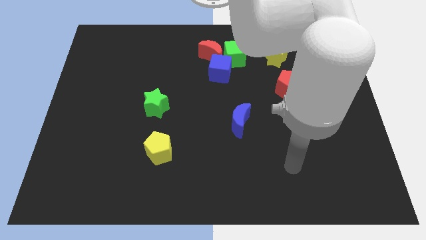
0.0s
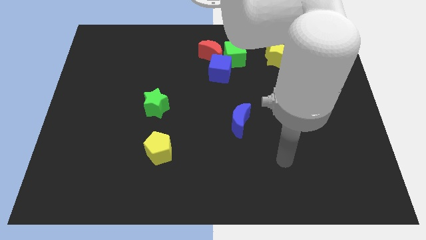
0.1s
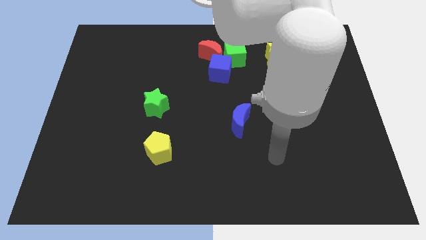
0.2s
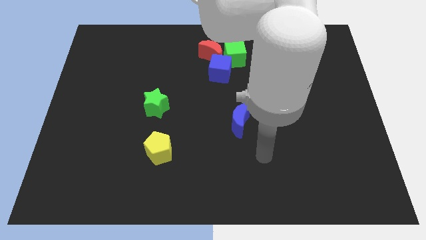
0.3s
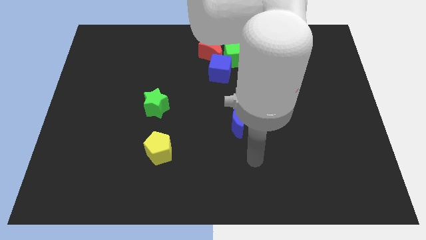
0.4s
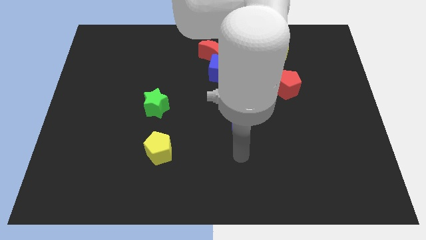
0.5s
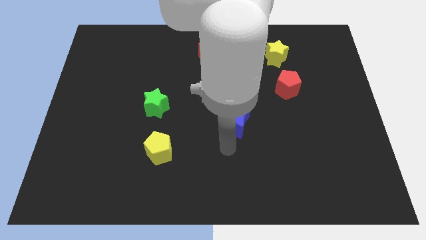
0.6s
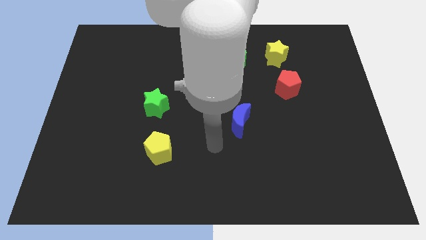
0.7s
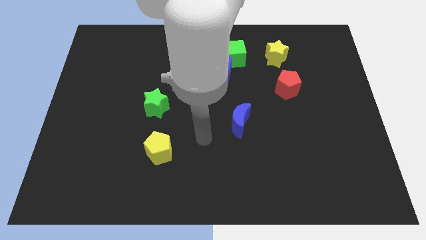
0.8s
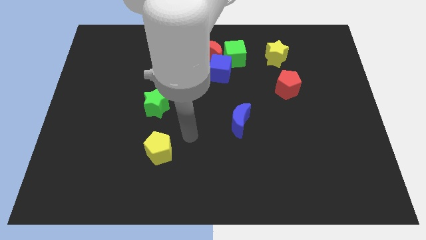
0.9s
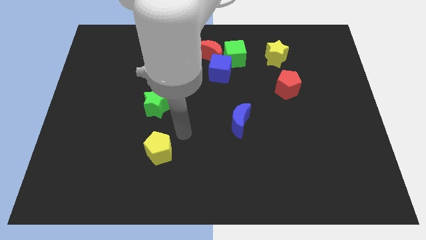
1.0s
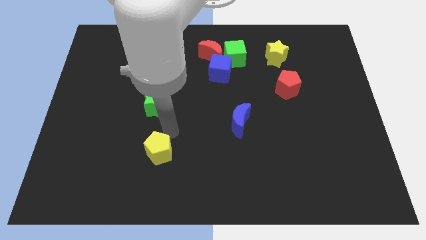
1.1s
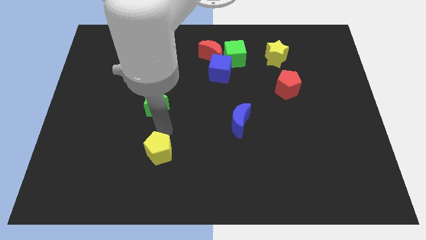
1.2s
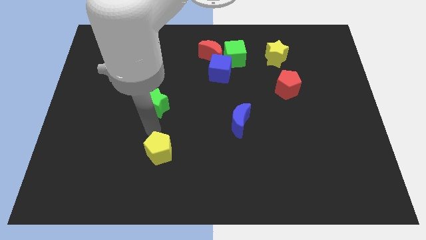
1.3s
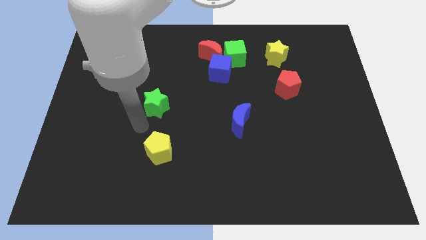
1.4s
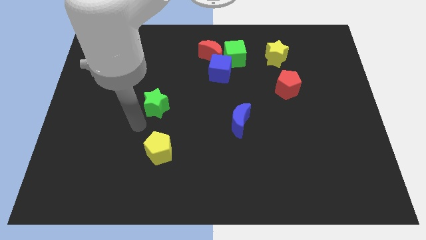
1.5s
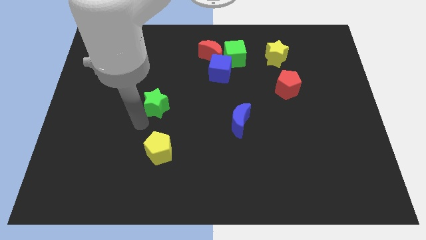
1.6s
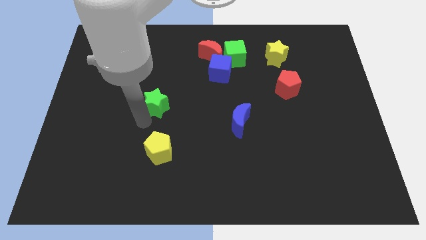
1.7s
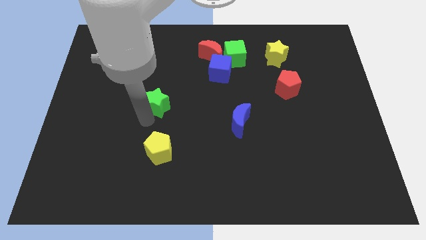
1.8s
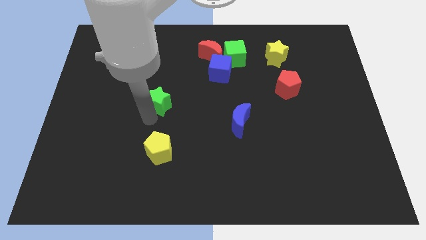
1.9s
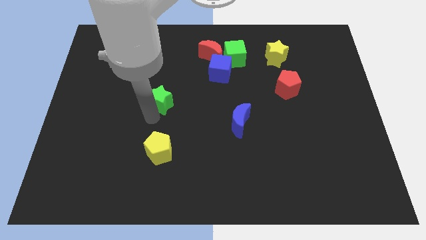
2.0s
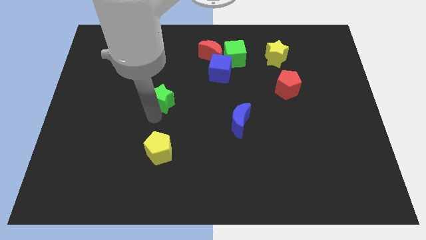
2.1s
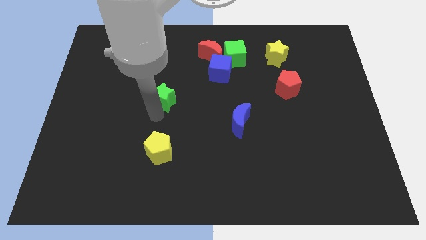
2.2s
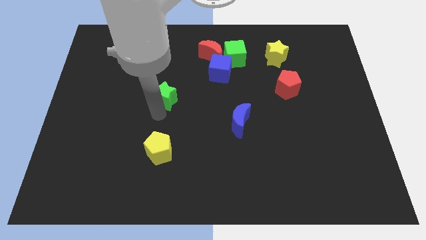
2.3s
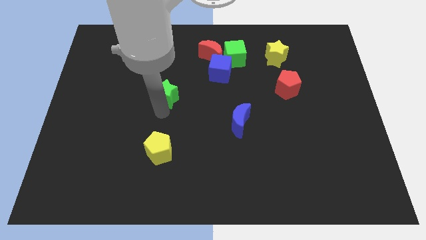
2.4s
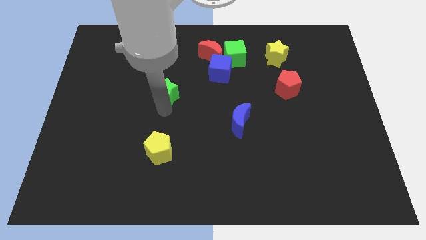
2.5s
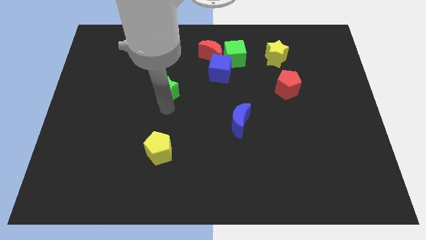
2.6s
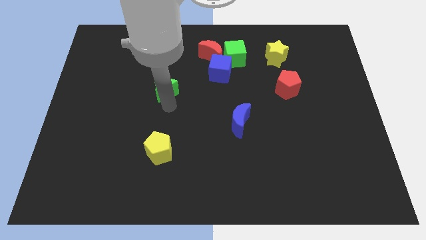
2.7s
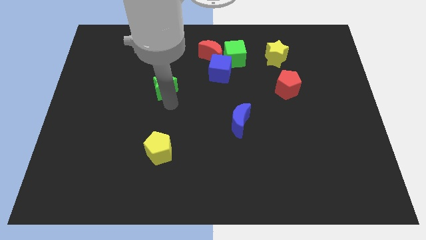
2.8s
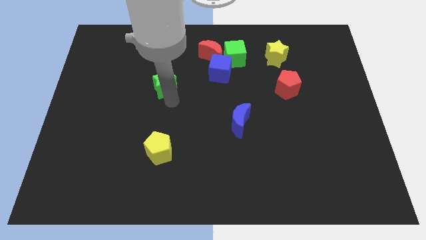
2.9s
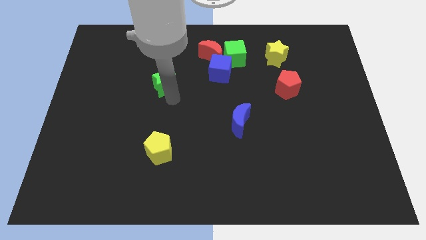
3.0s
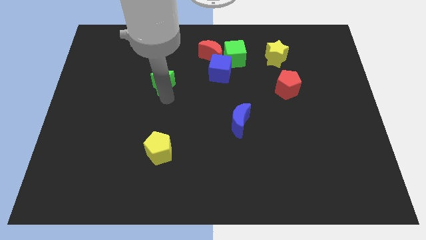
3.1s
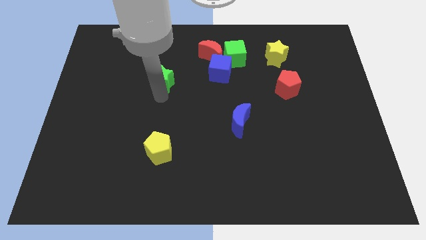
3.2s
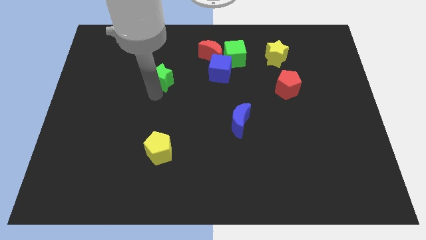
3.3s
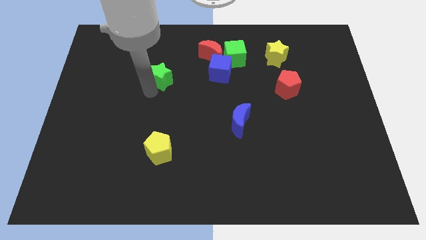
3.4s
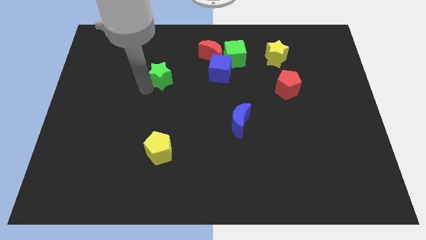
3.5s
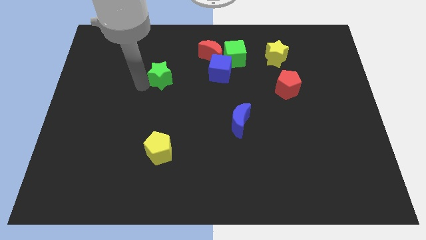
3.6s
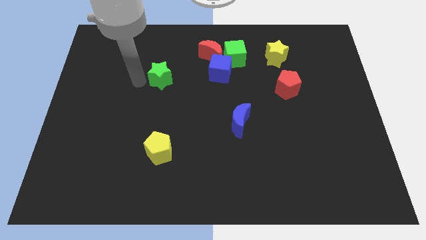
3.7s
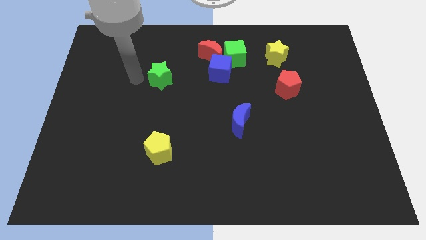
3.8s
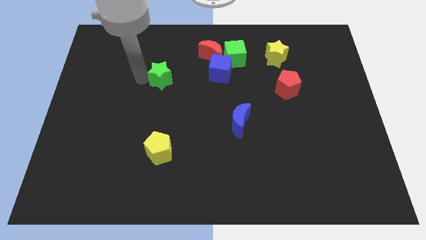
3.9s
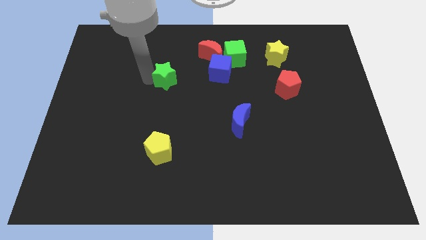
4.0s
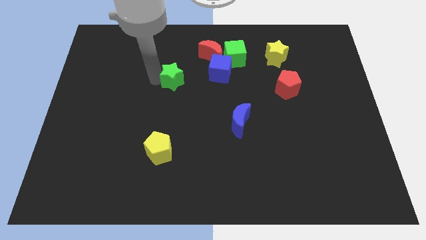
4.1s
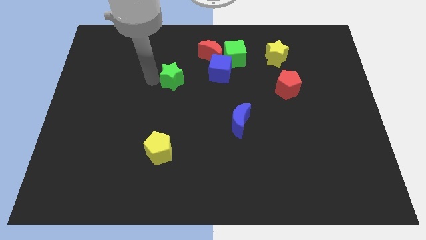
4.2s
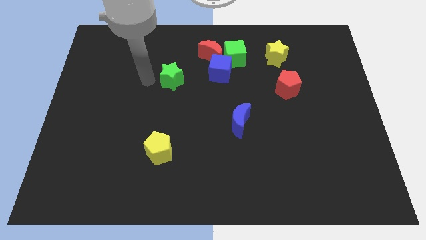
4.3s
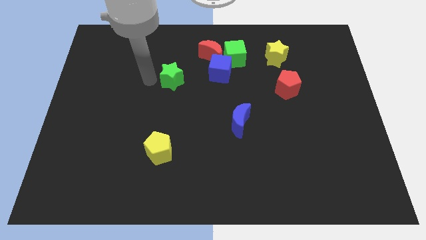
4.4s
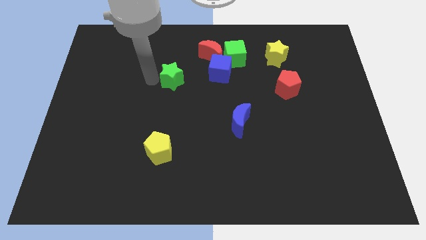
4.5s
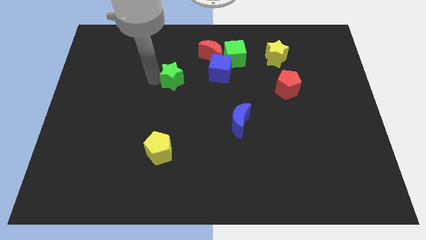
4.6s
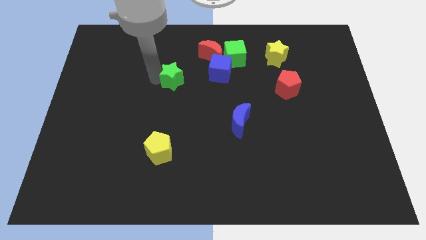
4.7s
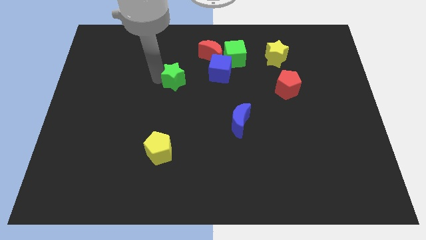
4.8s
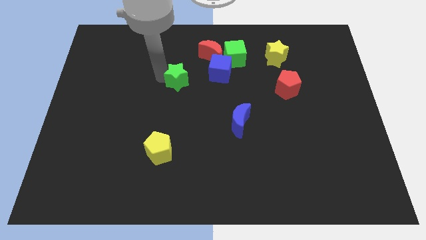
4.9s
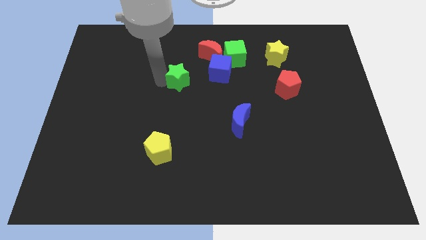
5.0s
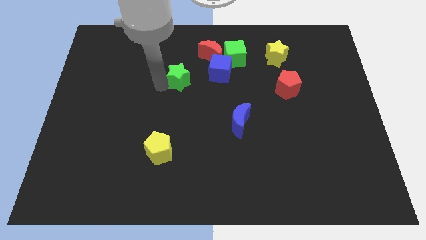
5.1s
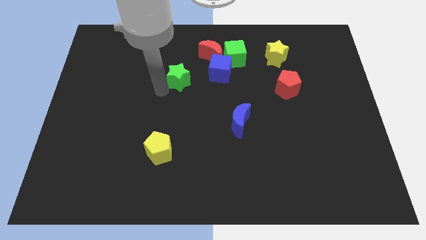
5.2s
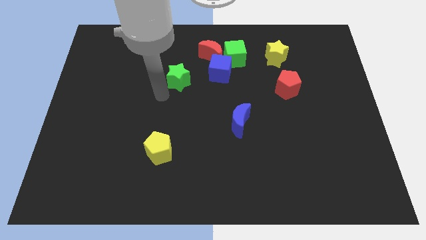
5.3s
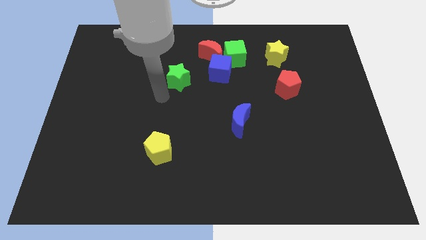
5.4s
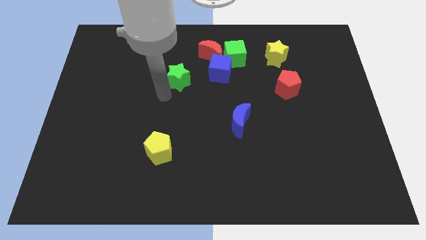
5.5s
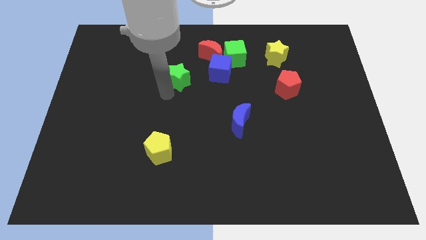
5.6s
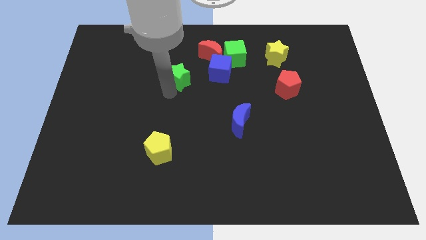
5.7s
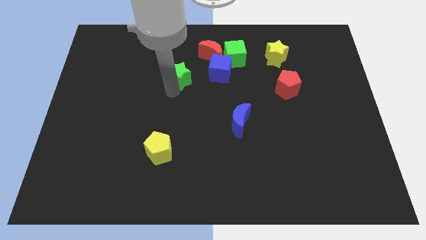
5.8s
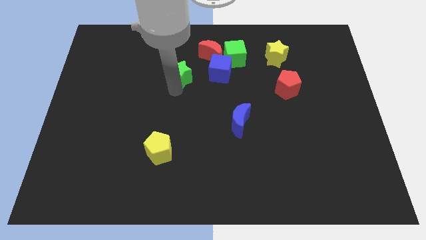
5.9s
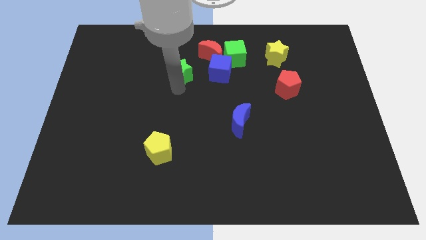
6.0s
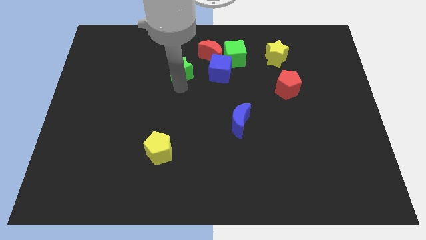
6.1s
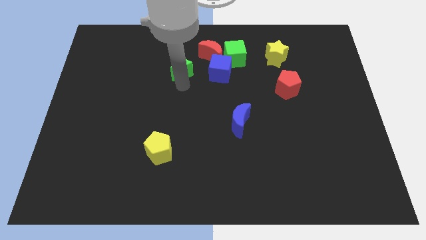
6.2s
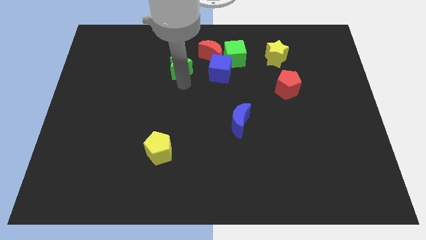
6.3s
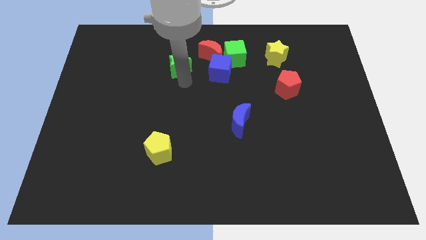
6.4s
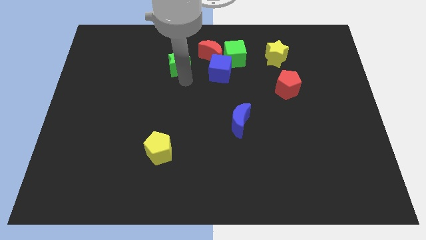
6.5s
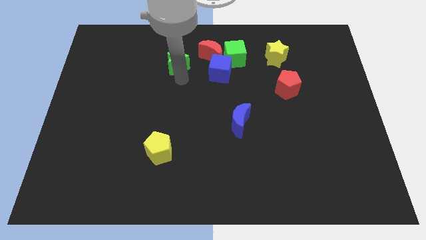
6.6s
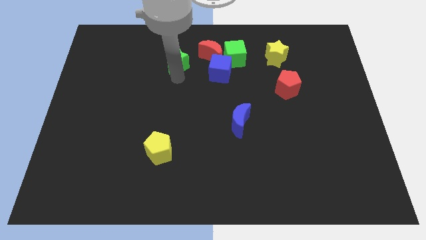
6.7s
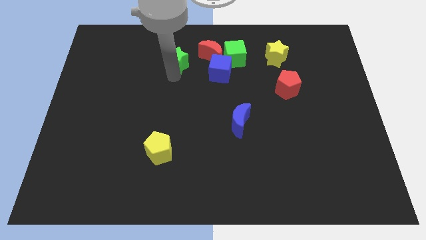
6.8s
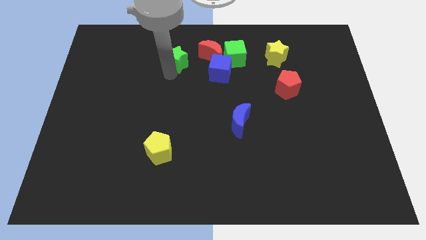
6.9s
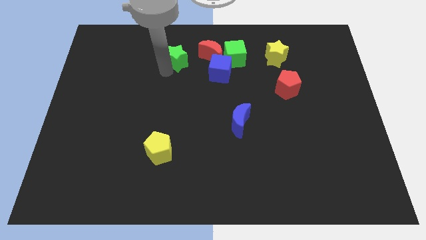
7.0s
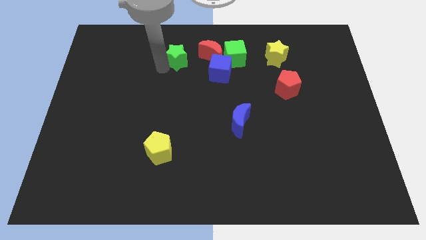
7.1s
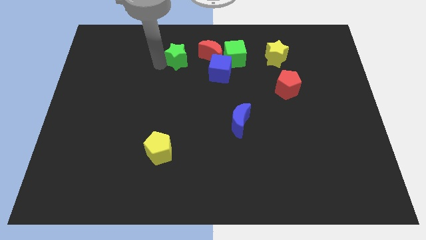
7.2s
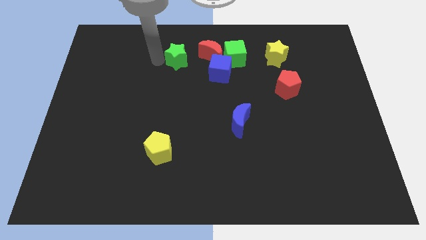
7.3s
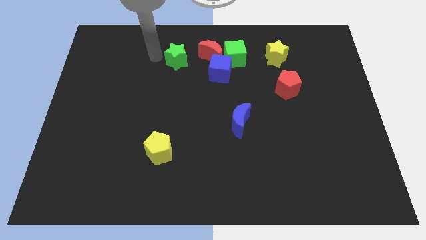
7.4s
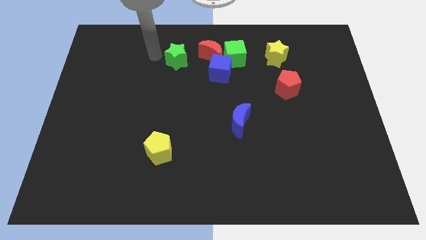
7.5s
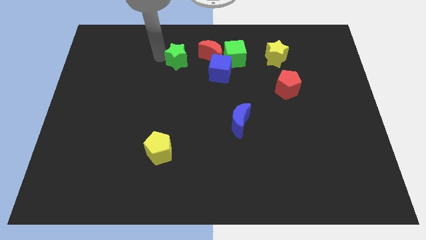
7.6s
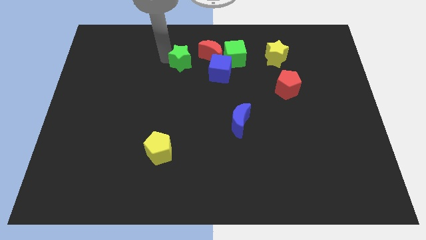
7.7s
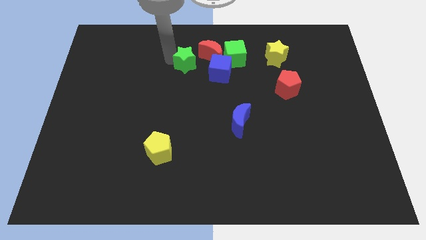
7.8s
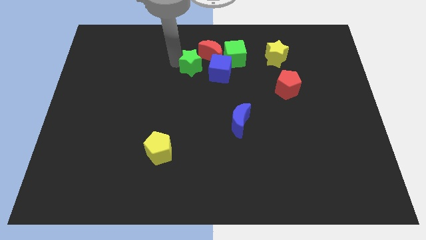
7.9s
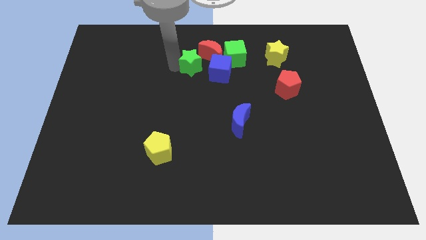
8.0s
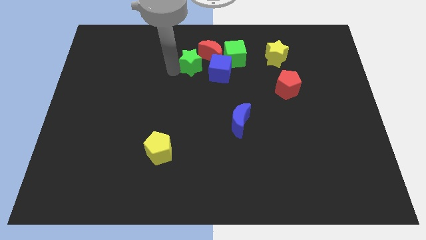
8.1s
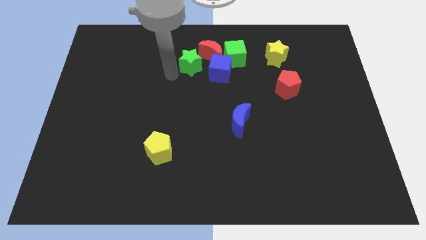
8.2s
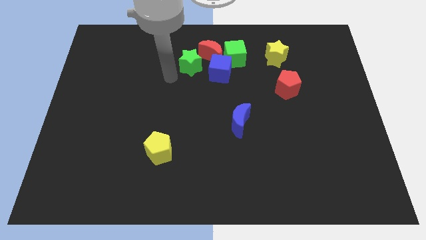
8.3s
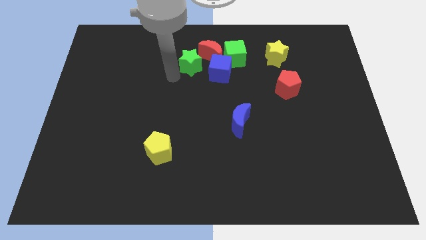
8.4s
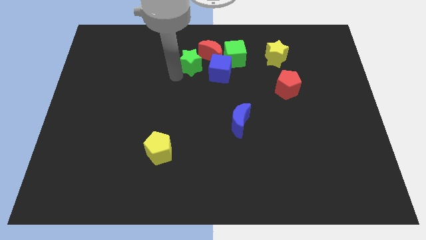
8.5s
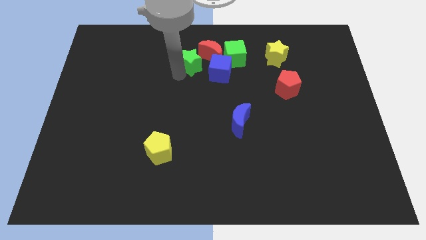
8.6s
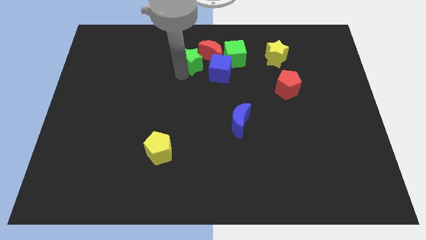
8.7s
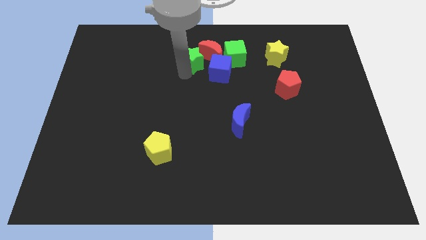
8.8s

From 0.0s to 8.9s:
move the green star close to the red moon
